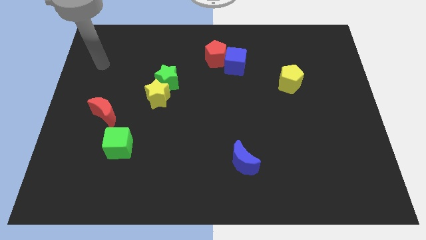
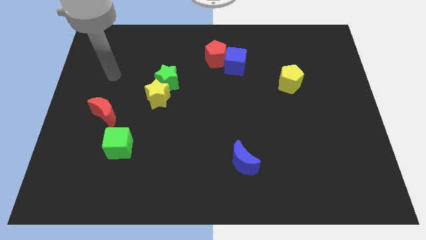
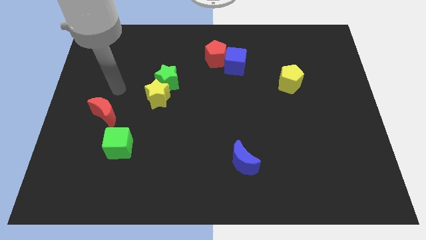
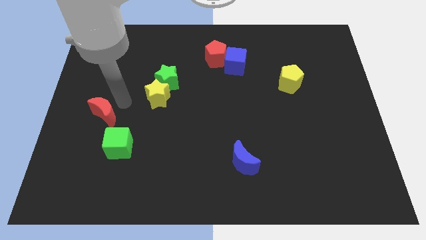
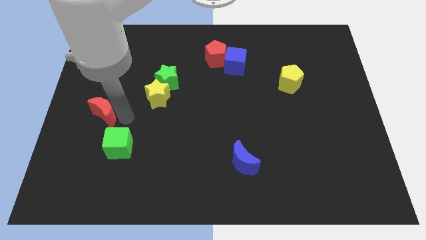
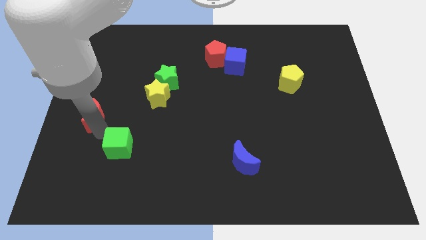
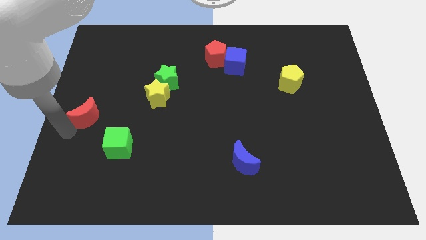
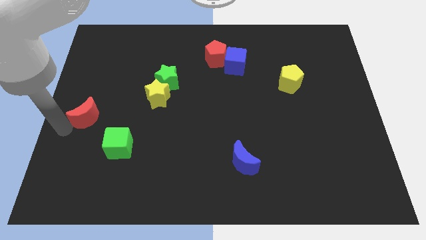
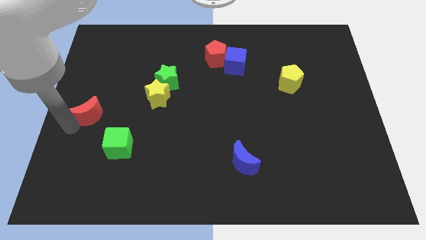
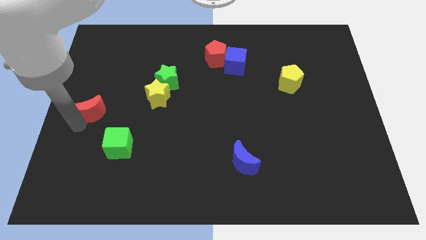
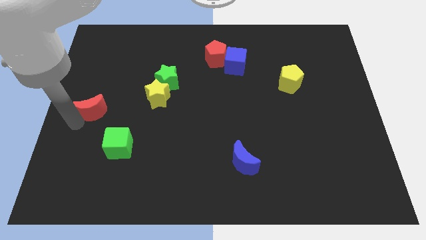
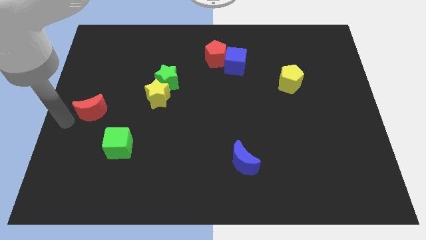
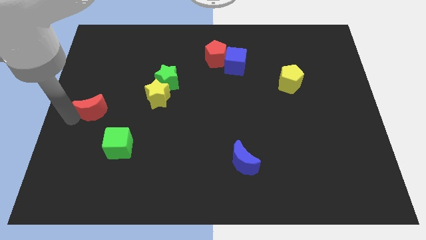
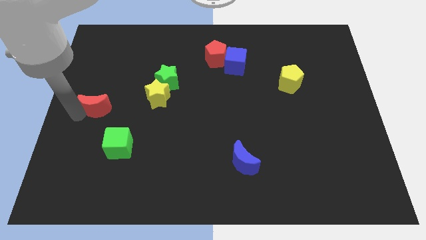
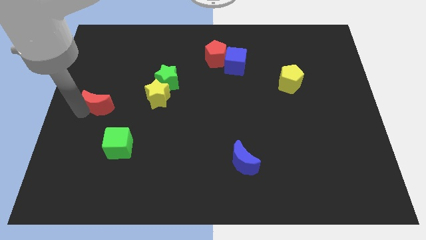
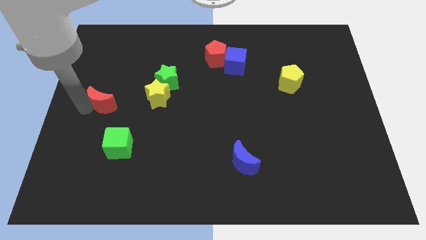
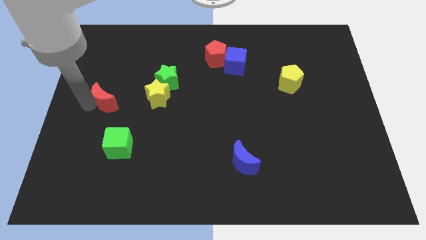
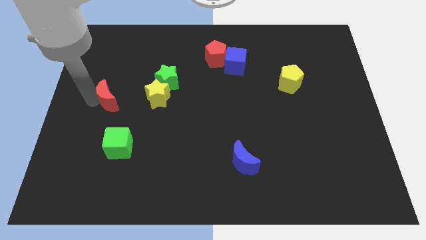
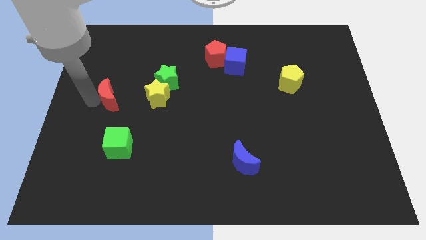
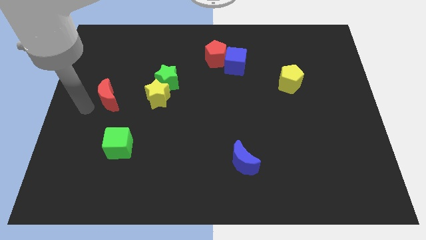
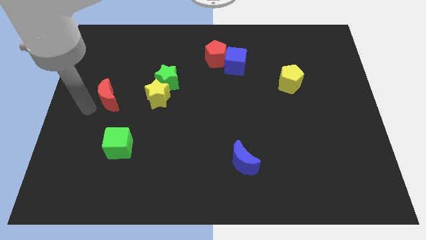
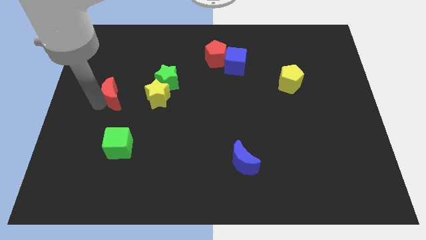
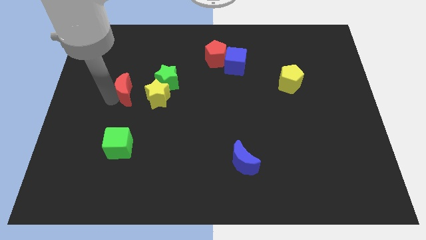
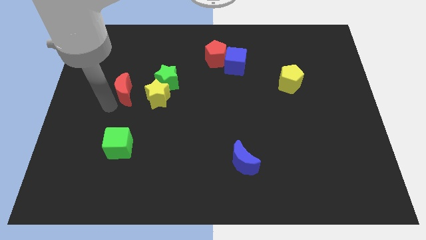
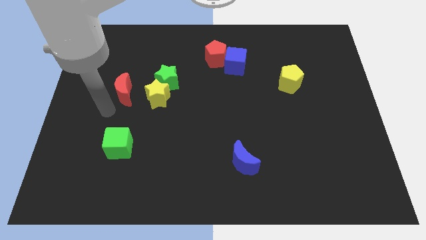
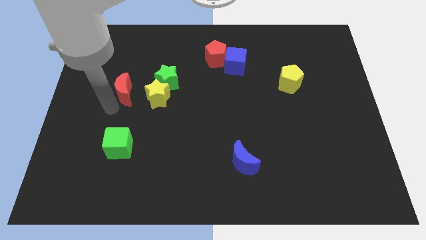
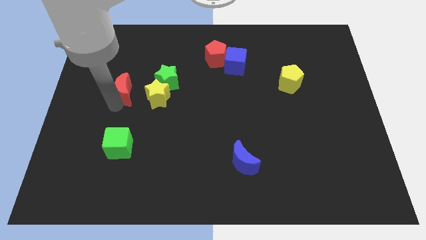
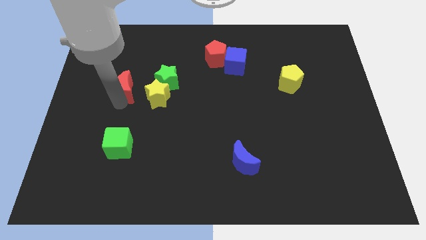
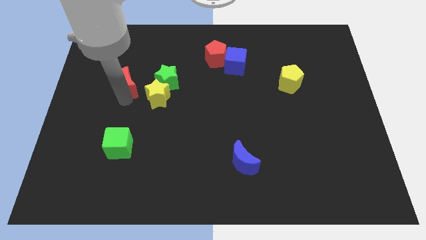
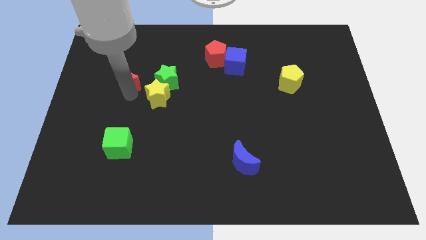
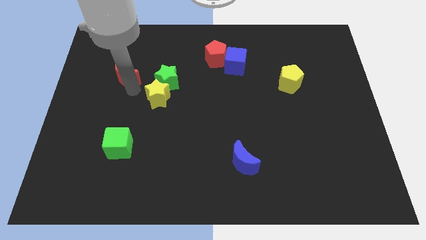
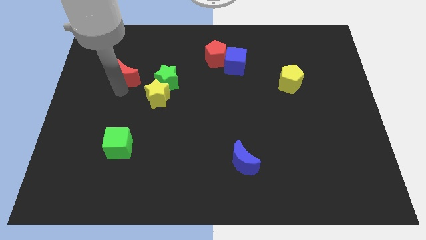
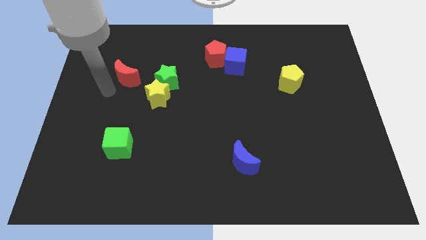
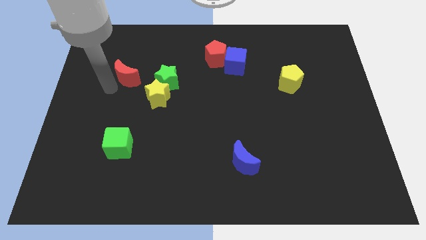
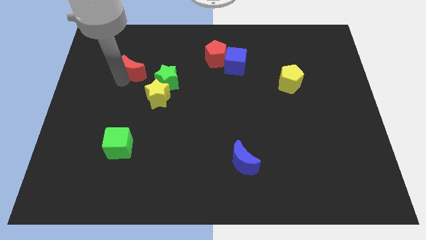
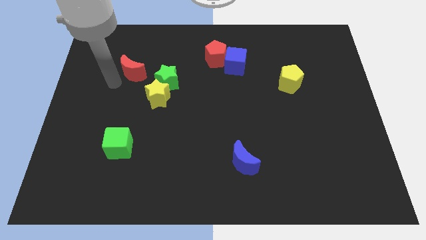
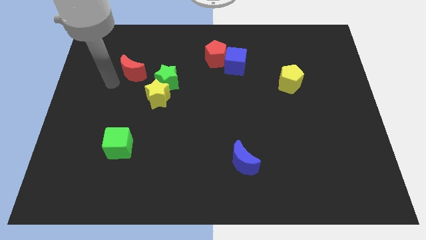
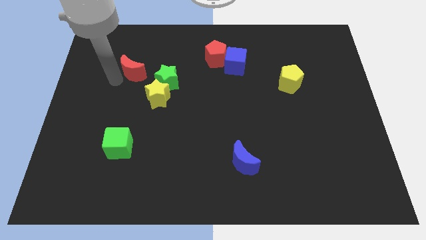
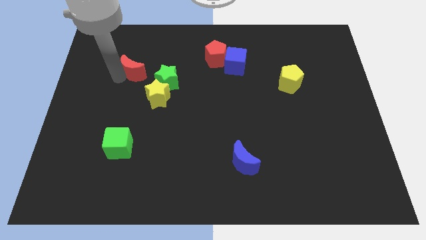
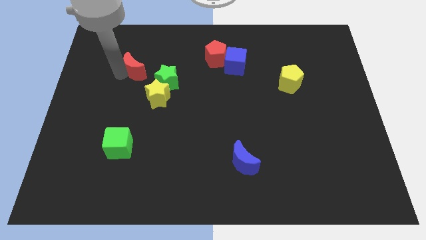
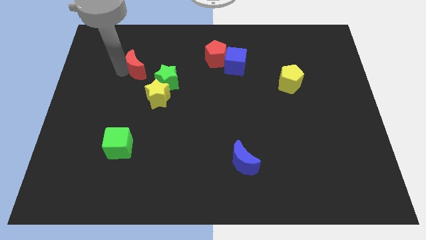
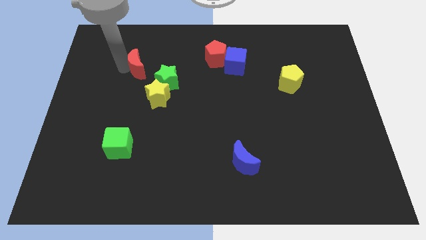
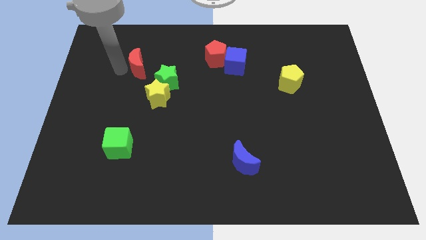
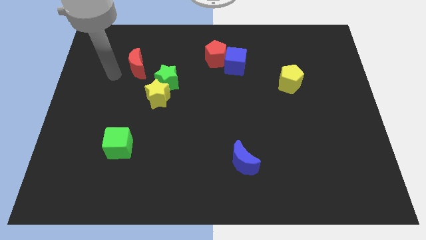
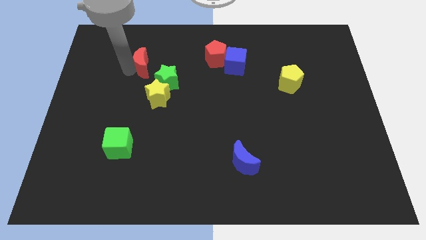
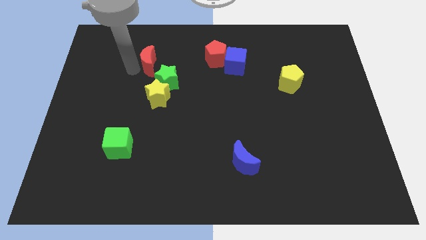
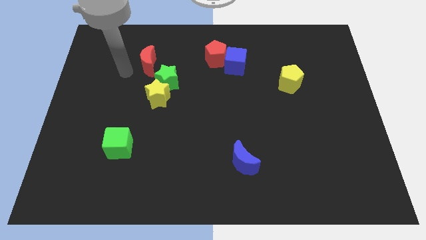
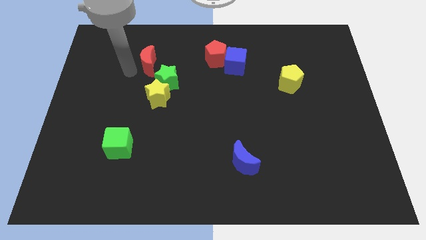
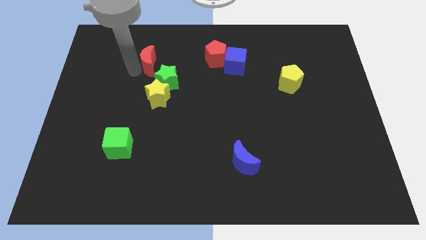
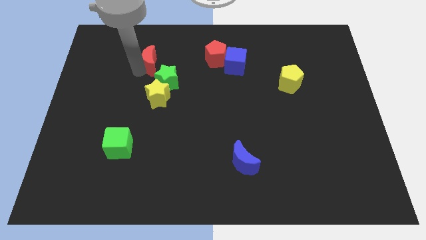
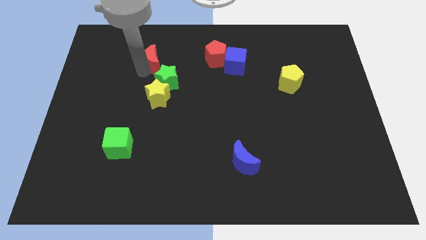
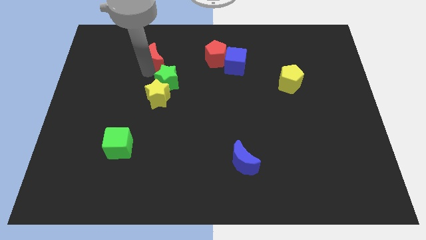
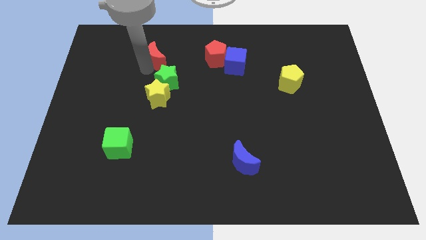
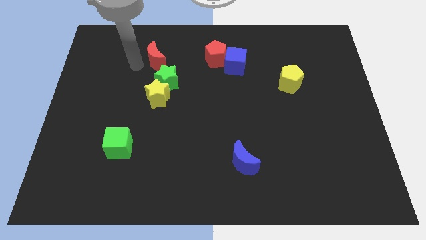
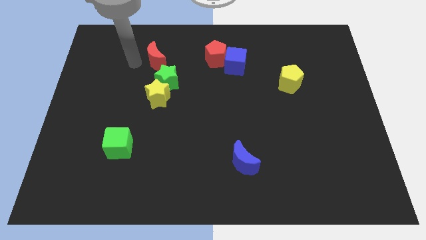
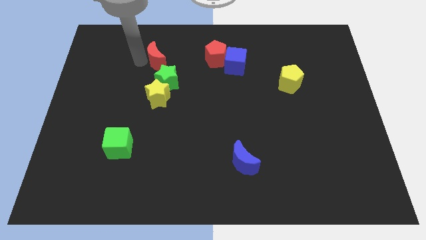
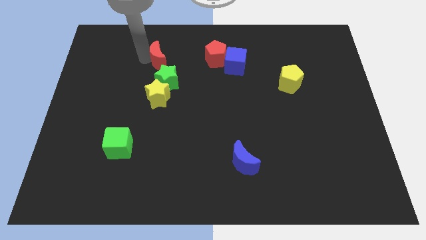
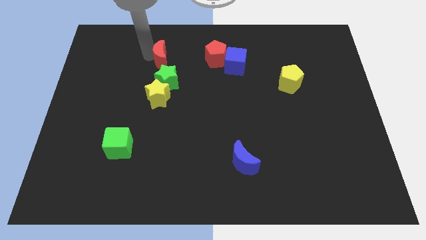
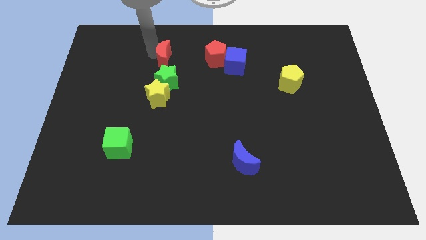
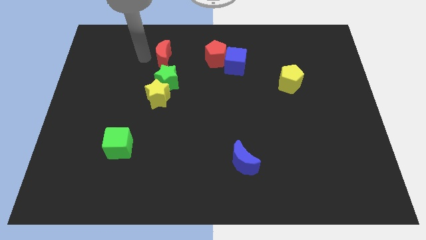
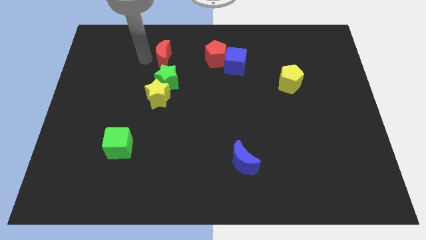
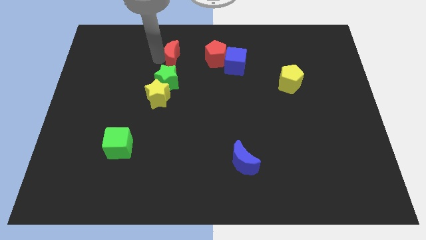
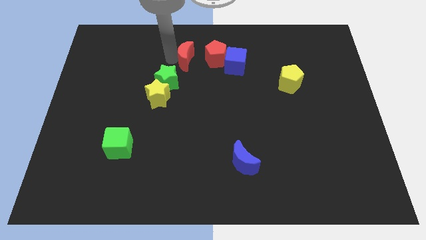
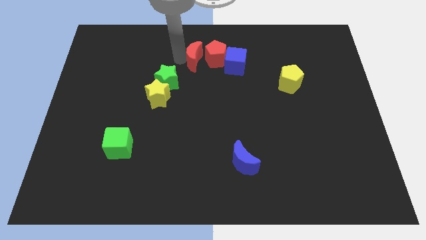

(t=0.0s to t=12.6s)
move the red moon close to the red pentagon
